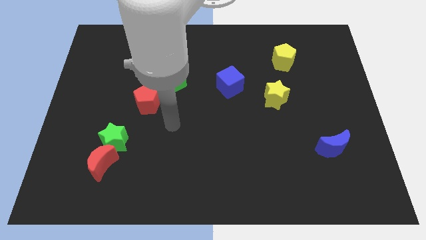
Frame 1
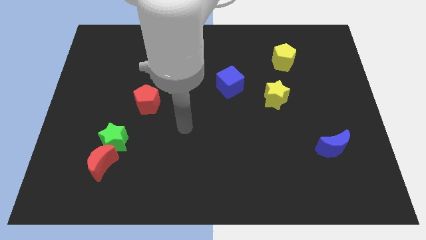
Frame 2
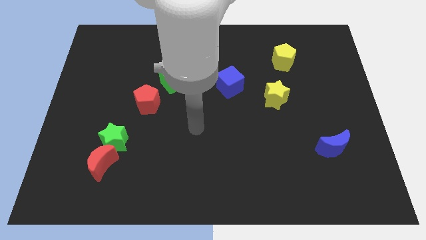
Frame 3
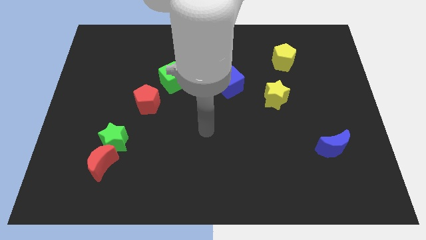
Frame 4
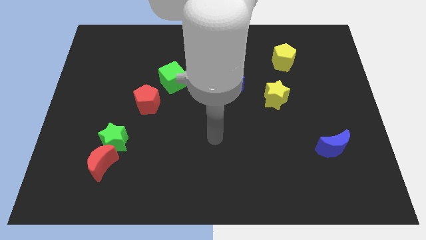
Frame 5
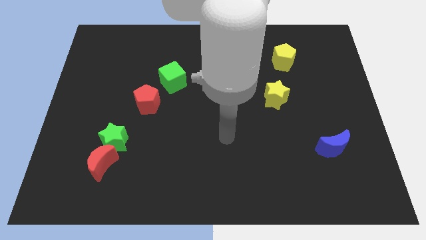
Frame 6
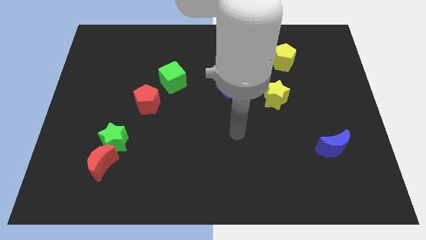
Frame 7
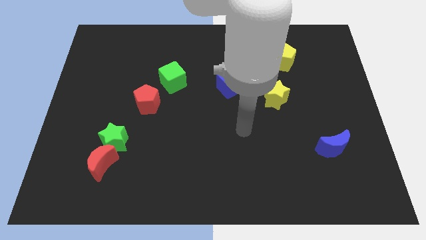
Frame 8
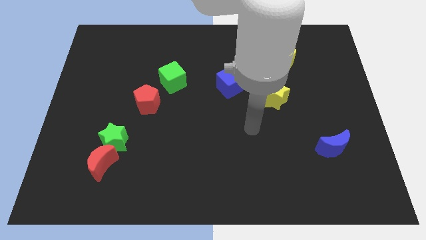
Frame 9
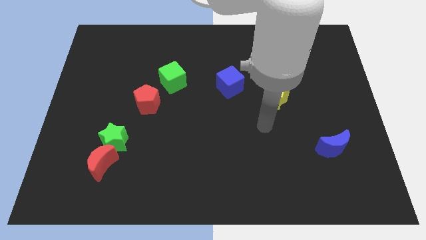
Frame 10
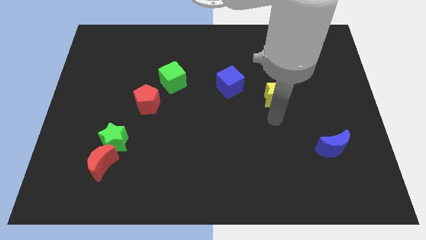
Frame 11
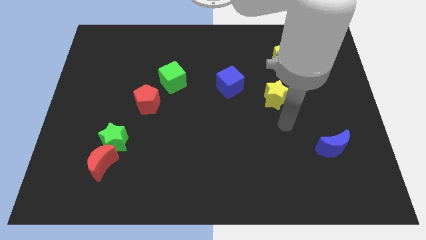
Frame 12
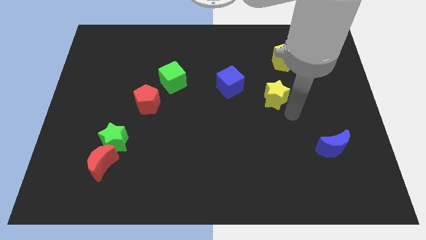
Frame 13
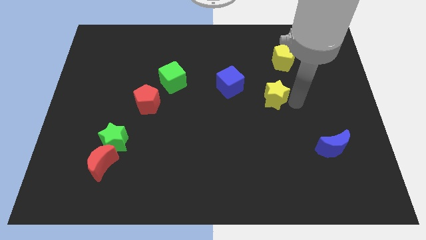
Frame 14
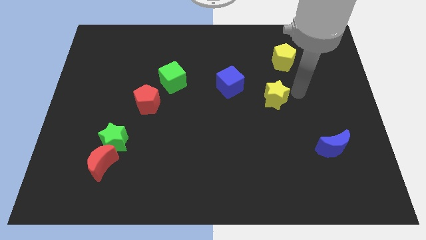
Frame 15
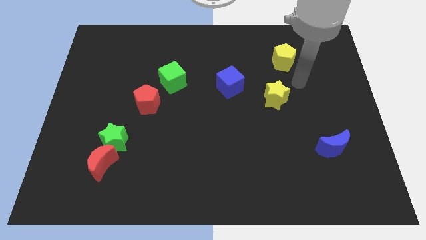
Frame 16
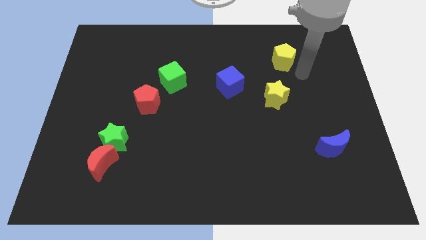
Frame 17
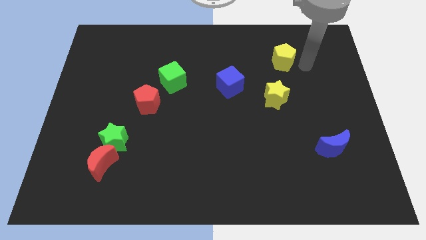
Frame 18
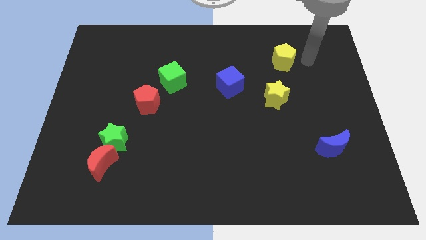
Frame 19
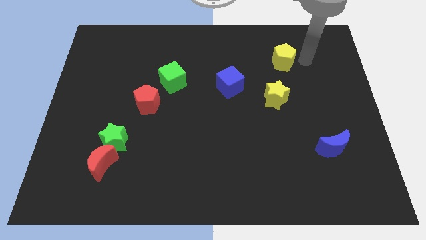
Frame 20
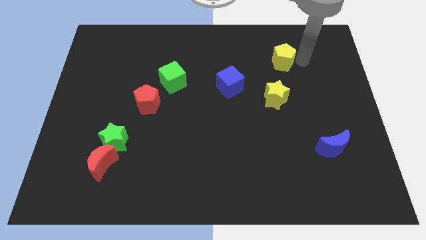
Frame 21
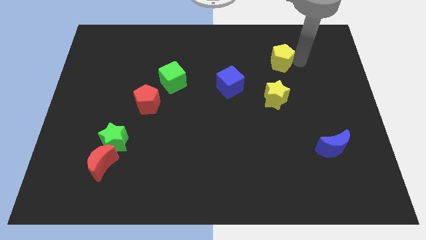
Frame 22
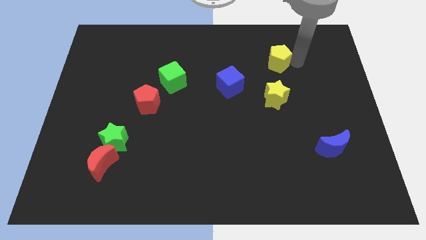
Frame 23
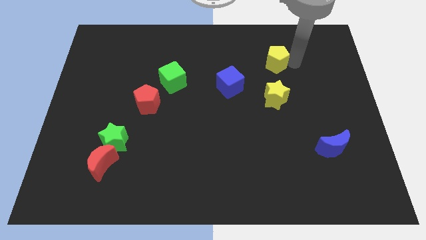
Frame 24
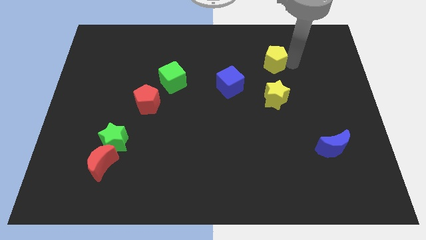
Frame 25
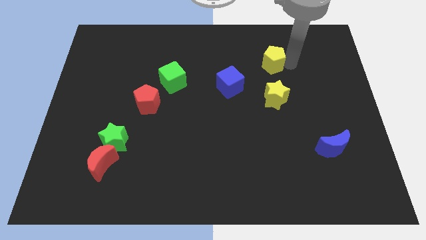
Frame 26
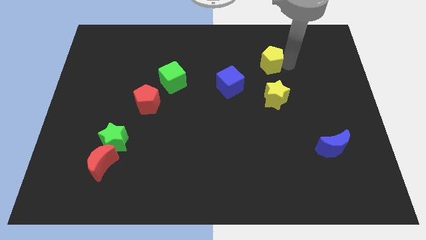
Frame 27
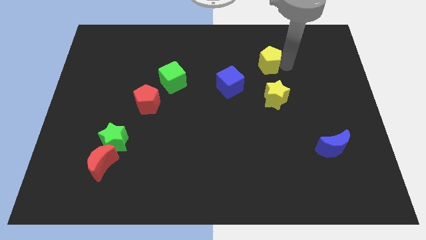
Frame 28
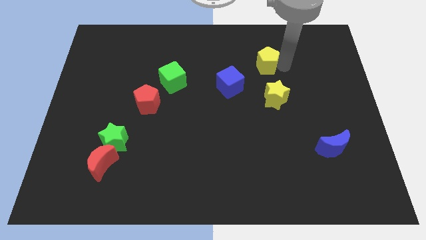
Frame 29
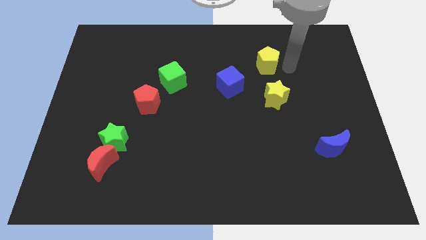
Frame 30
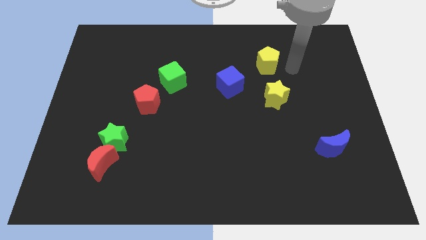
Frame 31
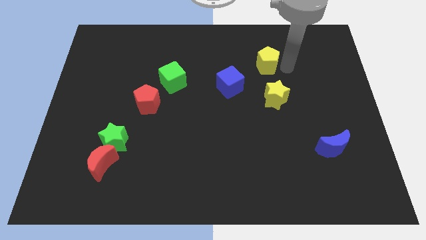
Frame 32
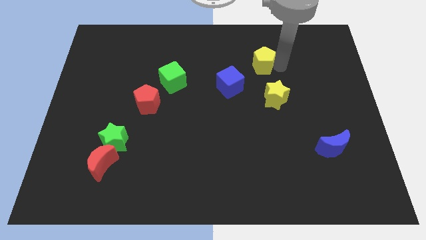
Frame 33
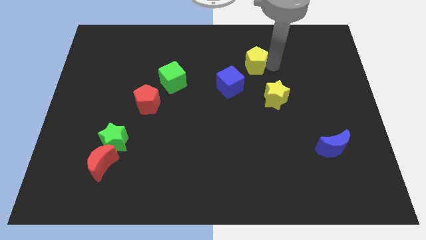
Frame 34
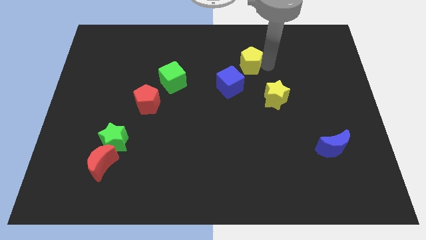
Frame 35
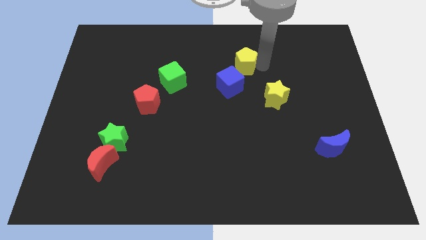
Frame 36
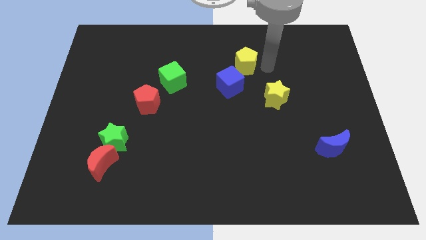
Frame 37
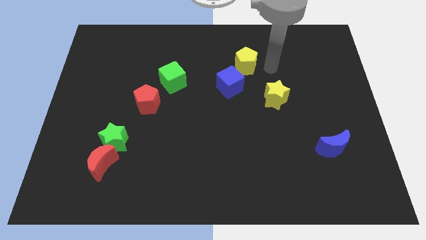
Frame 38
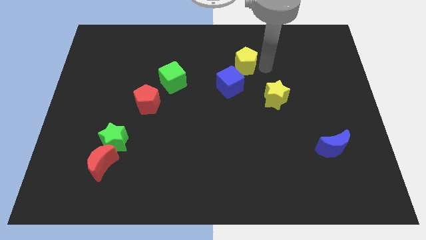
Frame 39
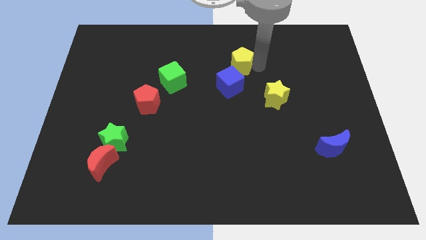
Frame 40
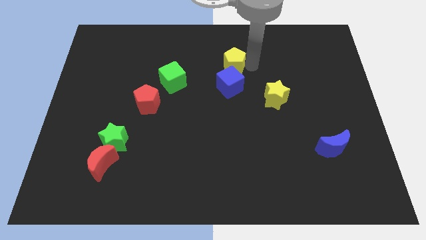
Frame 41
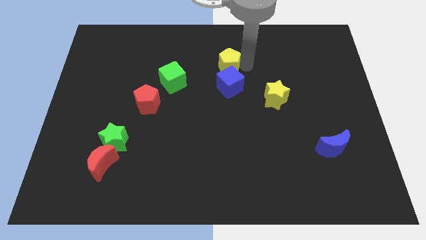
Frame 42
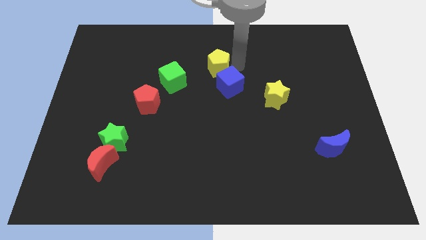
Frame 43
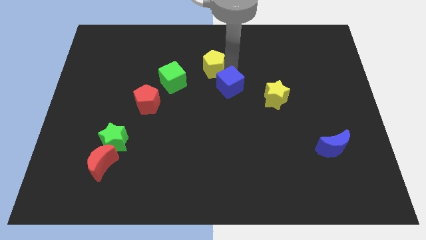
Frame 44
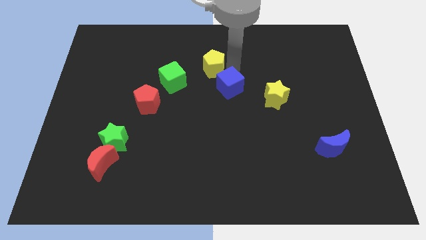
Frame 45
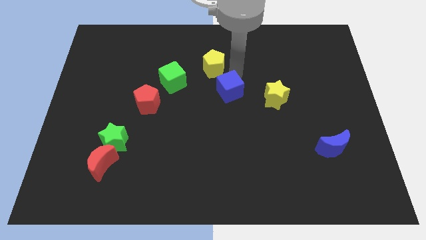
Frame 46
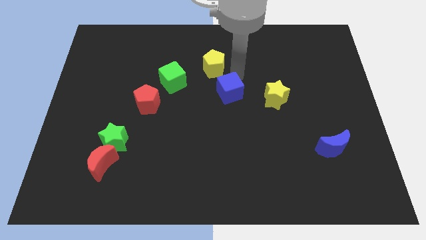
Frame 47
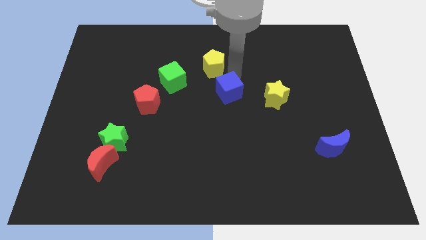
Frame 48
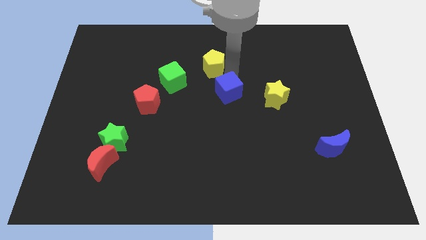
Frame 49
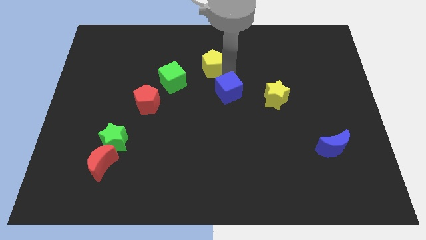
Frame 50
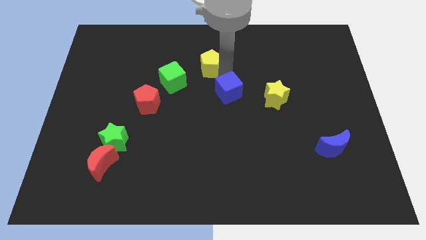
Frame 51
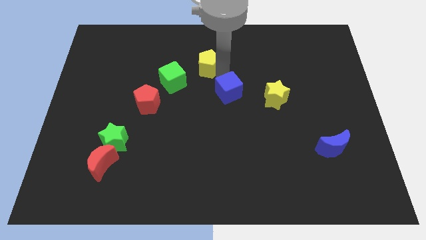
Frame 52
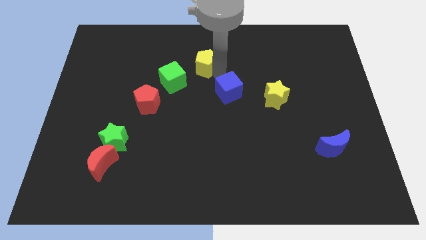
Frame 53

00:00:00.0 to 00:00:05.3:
slide the yellow pentagon to the left

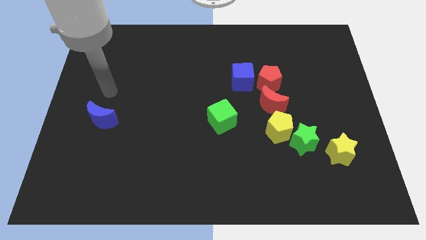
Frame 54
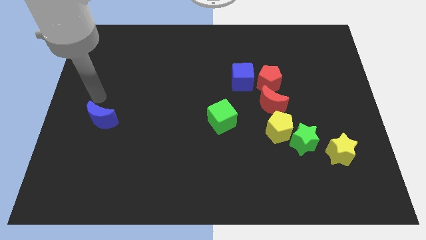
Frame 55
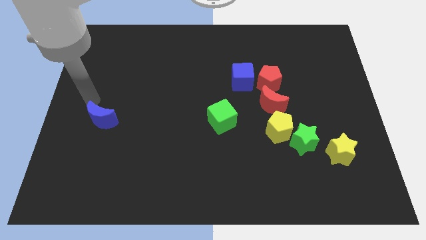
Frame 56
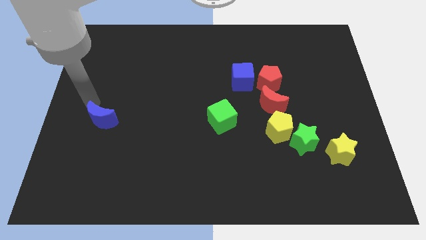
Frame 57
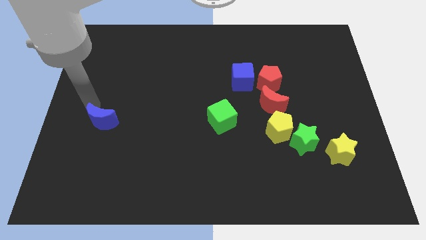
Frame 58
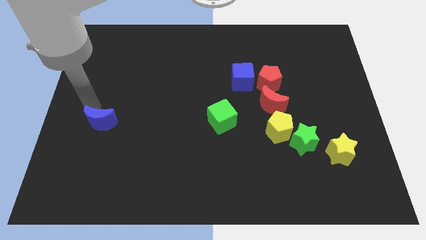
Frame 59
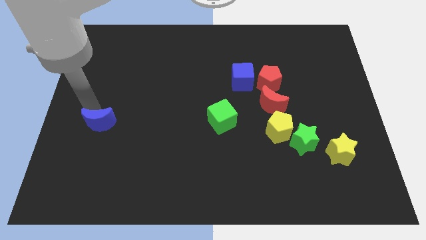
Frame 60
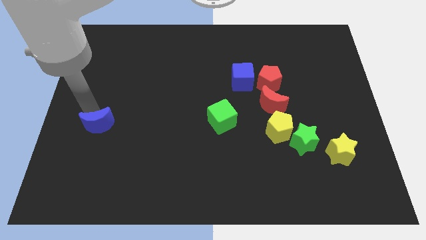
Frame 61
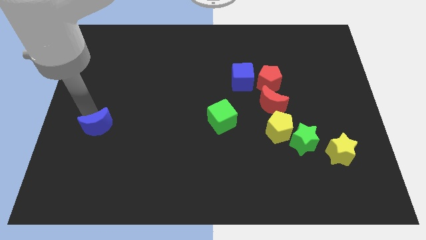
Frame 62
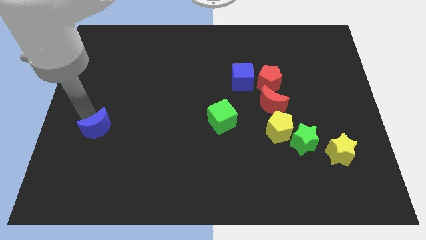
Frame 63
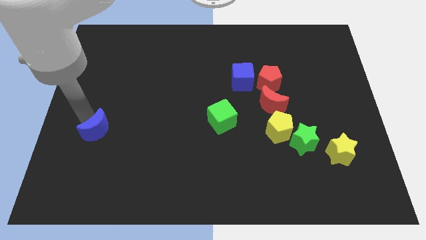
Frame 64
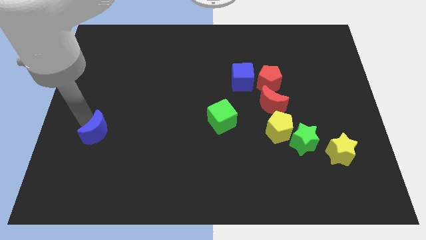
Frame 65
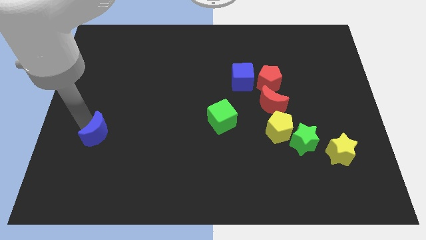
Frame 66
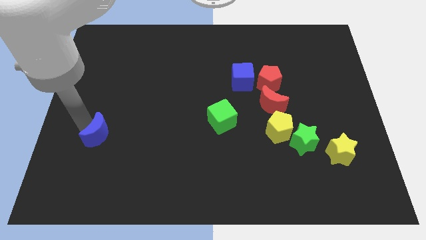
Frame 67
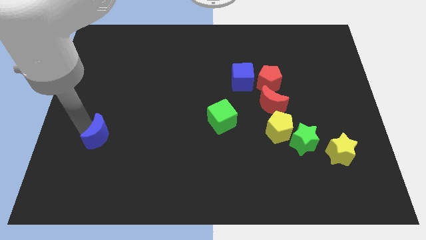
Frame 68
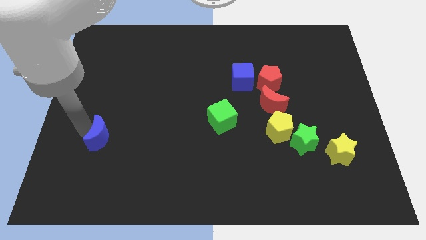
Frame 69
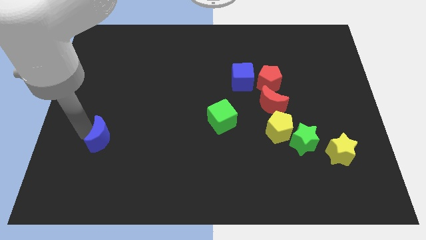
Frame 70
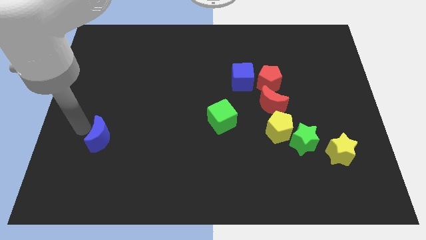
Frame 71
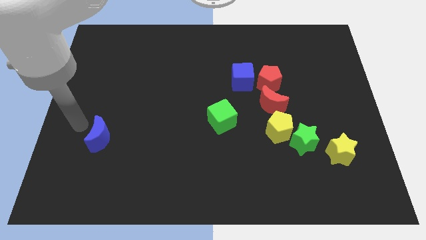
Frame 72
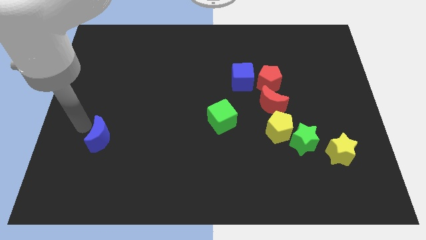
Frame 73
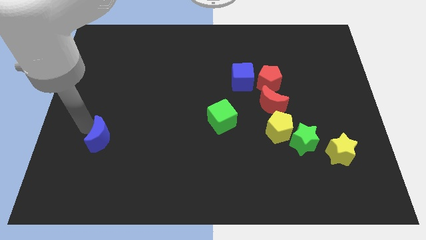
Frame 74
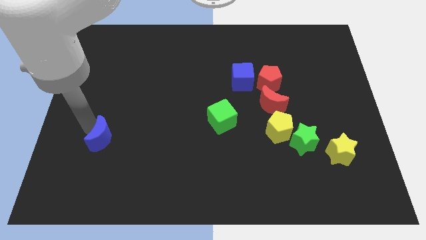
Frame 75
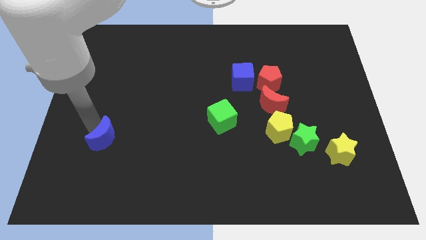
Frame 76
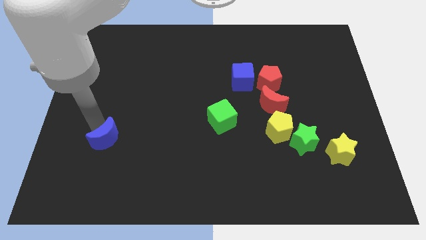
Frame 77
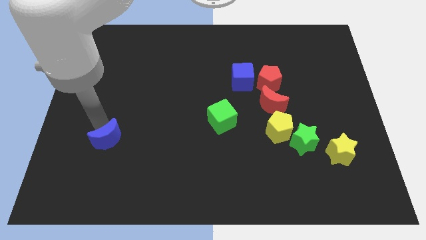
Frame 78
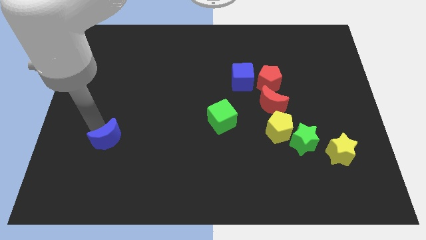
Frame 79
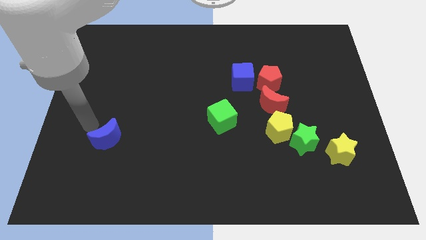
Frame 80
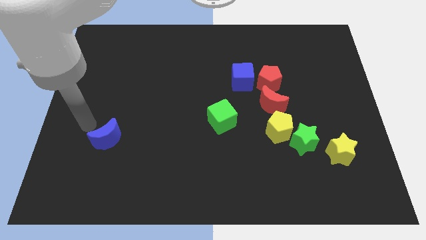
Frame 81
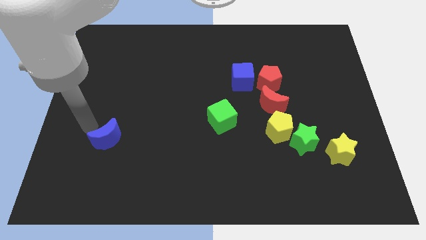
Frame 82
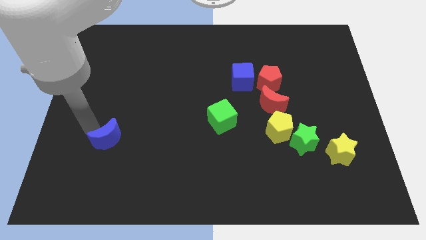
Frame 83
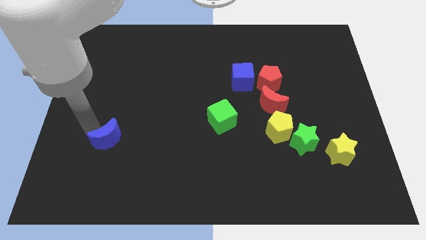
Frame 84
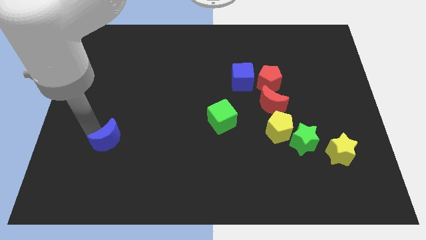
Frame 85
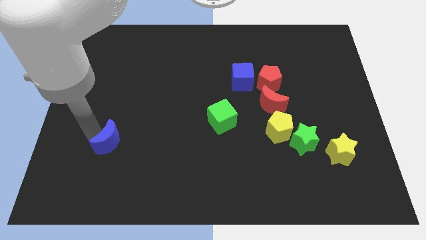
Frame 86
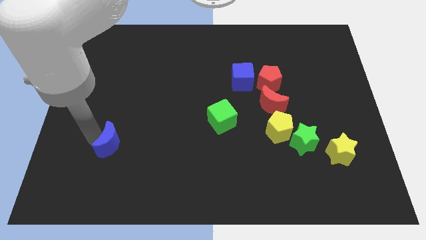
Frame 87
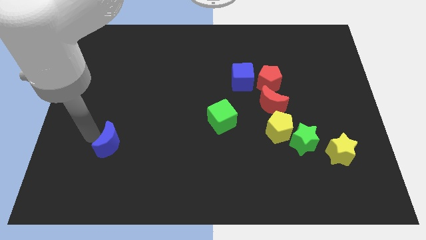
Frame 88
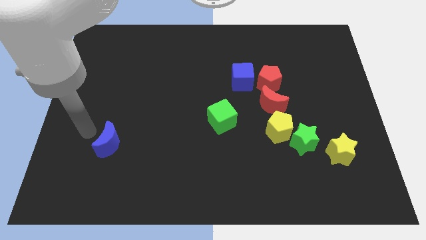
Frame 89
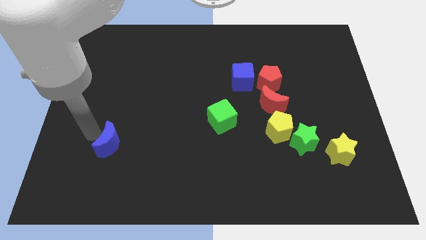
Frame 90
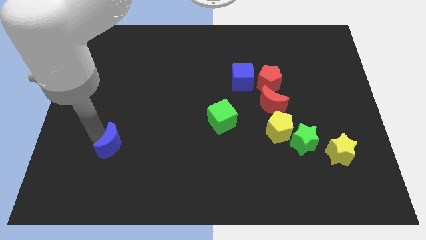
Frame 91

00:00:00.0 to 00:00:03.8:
slightly move the blue moon downwards and right diagonally
